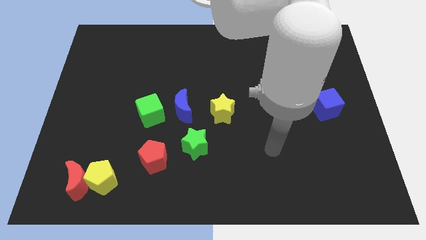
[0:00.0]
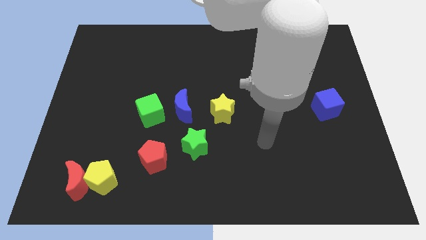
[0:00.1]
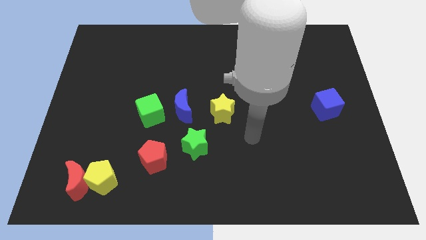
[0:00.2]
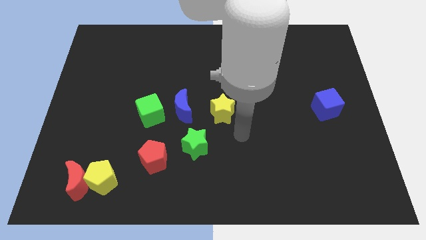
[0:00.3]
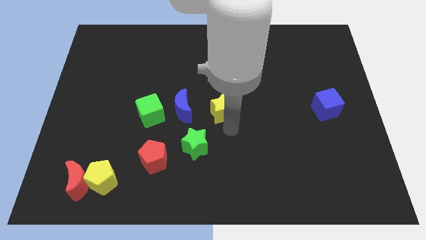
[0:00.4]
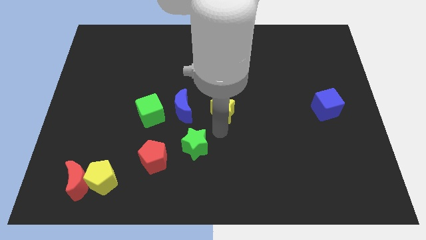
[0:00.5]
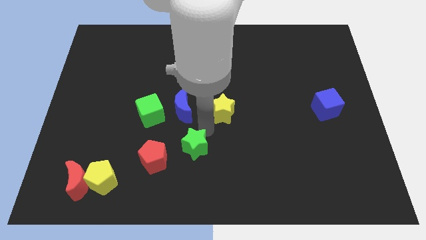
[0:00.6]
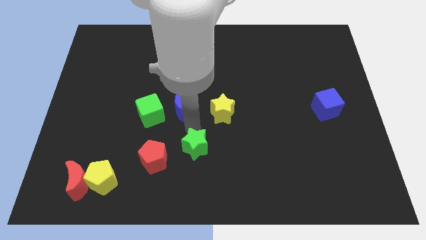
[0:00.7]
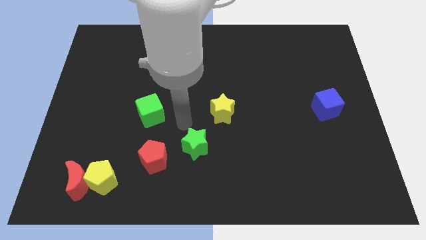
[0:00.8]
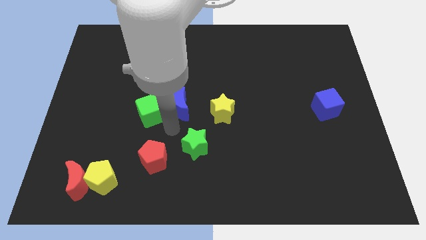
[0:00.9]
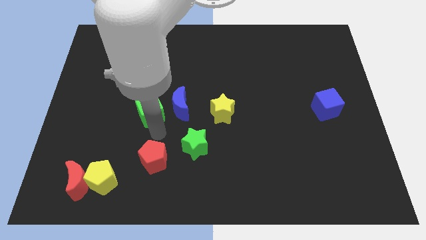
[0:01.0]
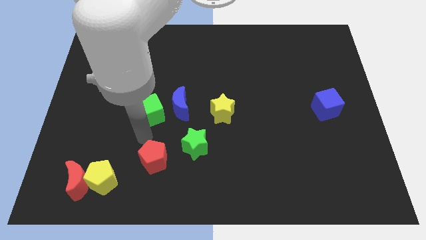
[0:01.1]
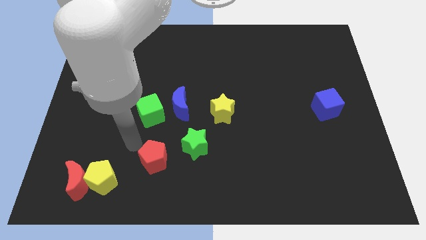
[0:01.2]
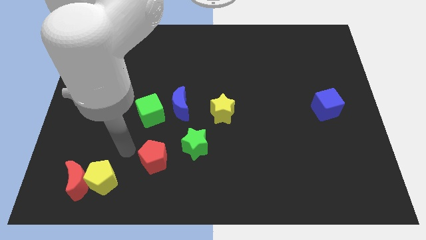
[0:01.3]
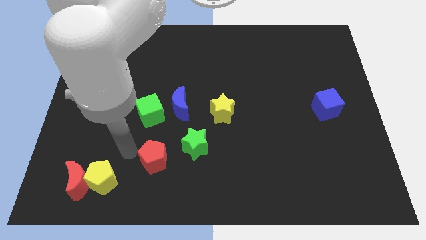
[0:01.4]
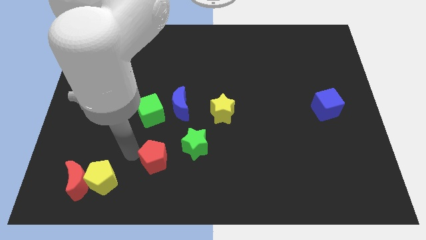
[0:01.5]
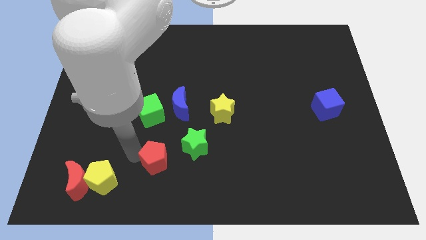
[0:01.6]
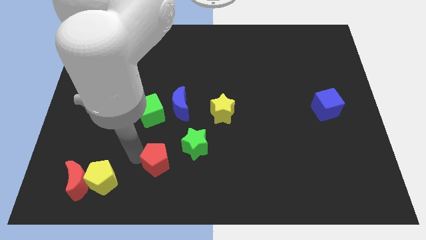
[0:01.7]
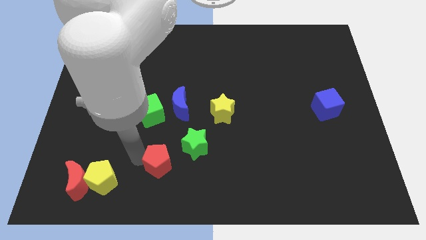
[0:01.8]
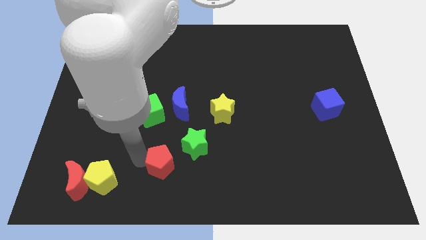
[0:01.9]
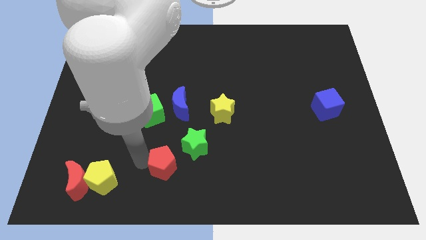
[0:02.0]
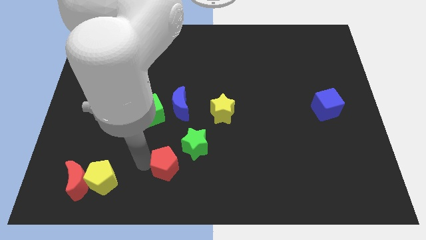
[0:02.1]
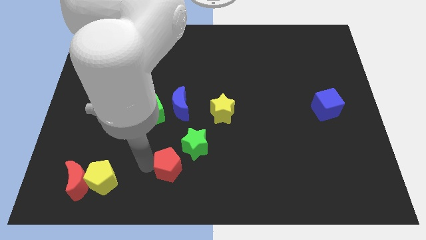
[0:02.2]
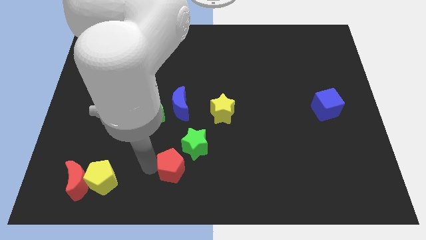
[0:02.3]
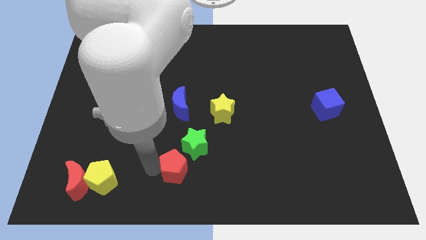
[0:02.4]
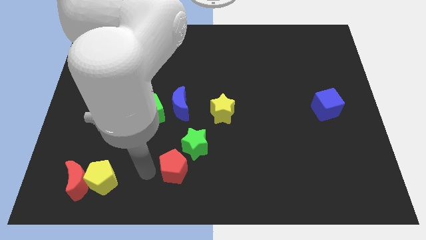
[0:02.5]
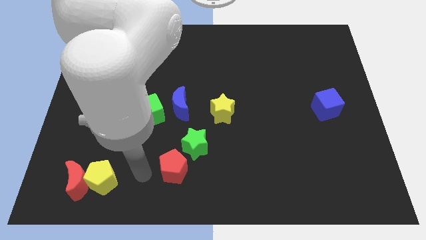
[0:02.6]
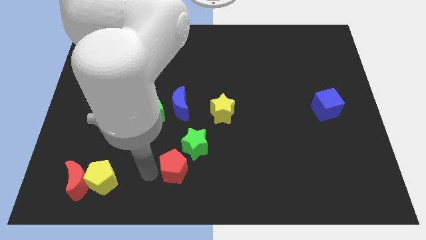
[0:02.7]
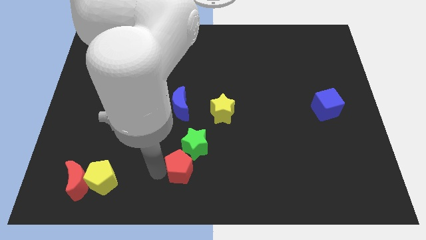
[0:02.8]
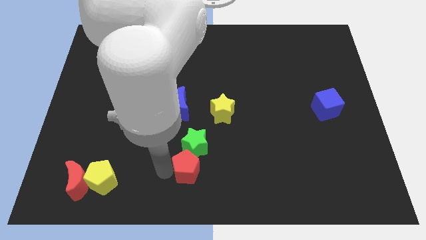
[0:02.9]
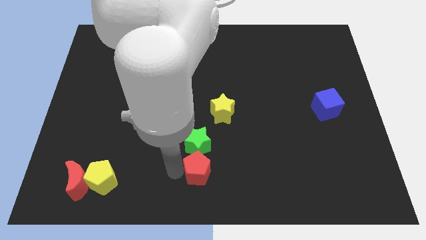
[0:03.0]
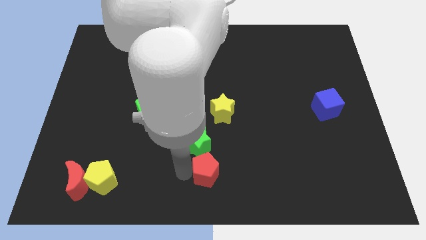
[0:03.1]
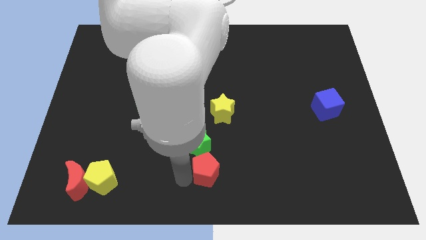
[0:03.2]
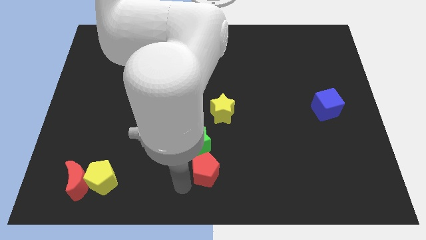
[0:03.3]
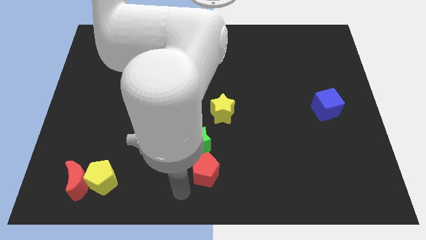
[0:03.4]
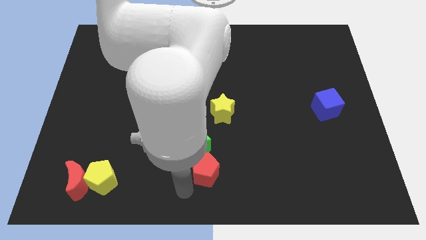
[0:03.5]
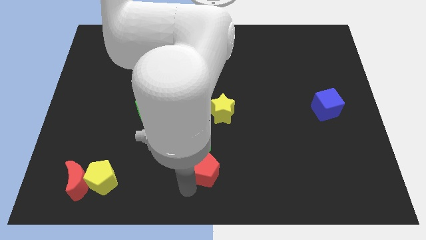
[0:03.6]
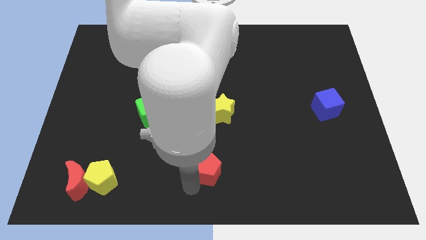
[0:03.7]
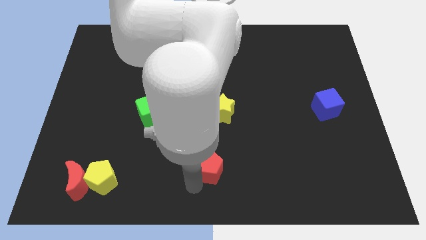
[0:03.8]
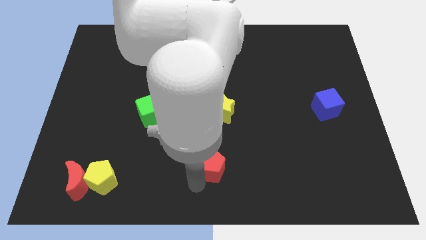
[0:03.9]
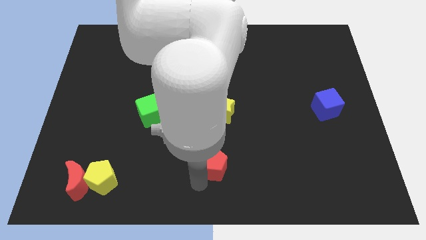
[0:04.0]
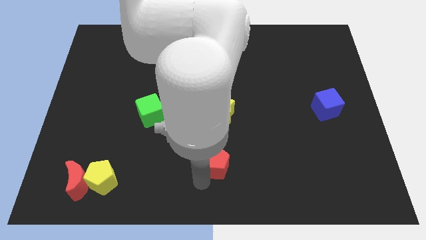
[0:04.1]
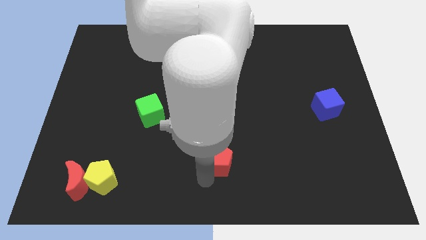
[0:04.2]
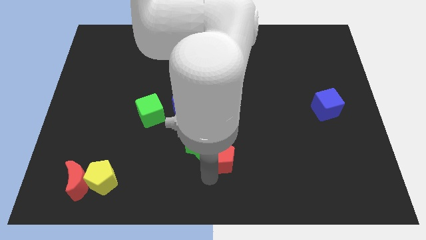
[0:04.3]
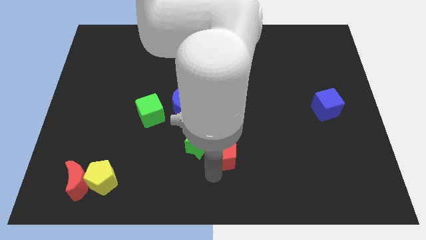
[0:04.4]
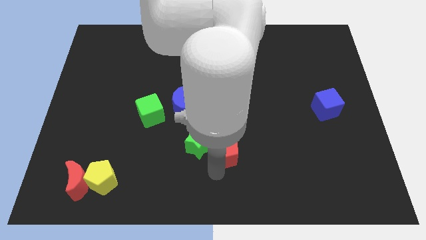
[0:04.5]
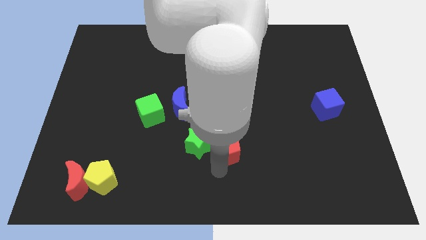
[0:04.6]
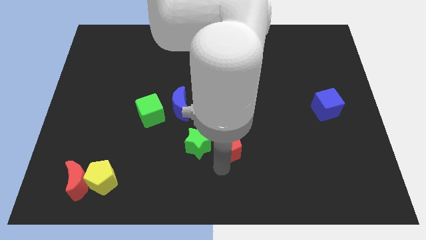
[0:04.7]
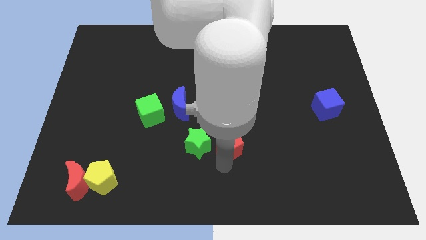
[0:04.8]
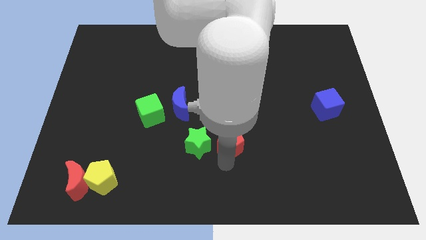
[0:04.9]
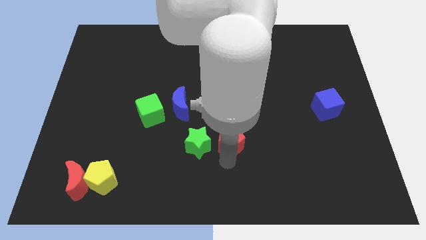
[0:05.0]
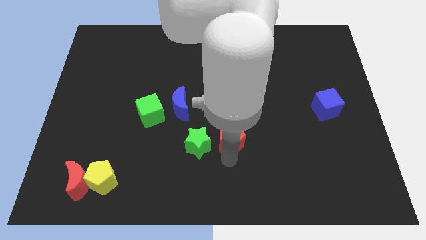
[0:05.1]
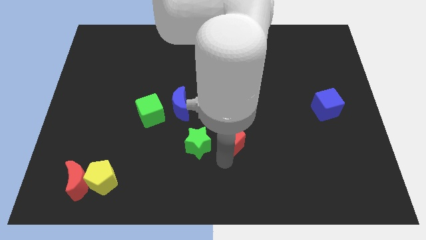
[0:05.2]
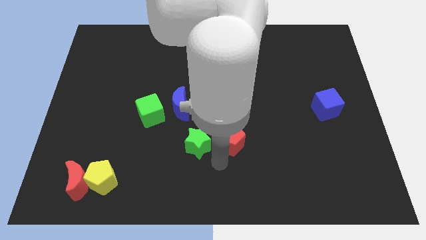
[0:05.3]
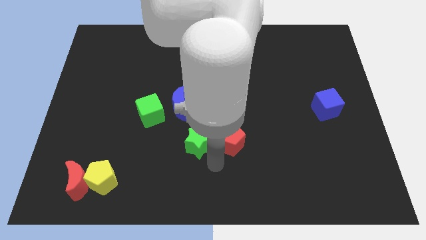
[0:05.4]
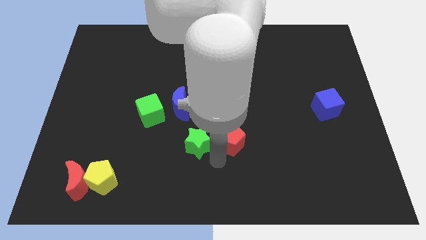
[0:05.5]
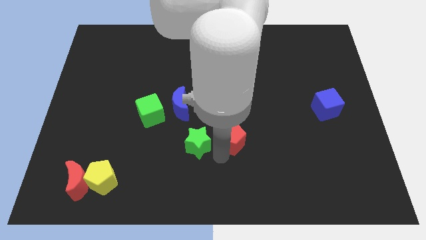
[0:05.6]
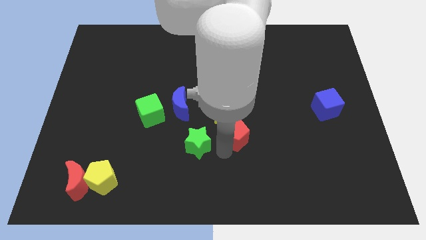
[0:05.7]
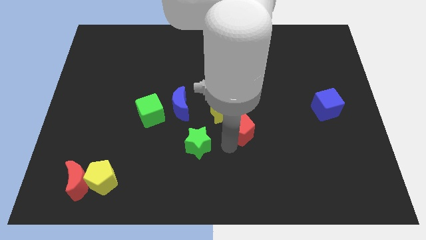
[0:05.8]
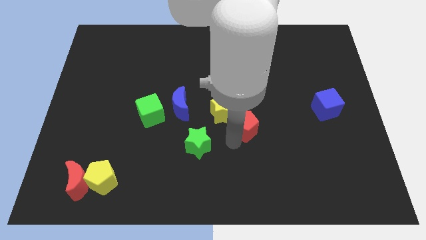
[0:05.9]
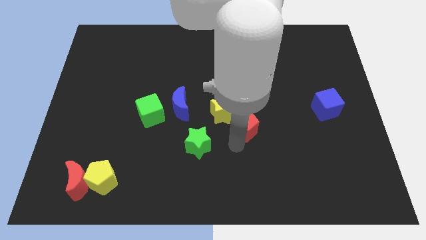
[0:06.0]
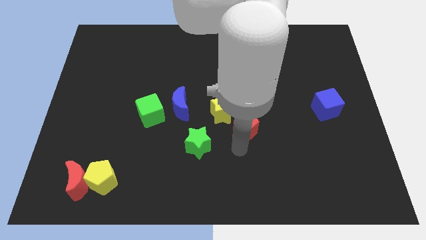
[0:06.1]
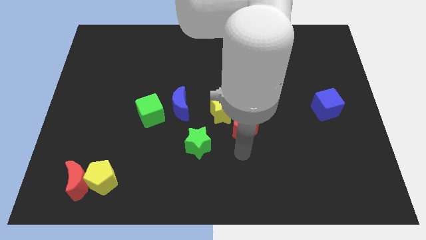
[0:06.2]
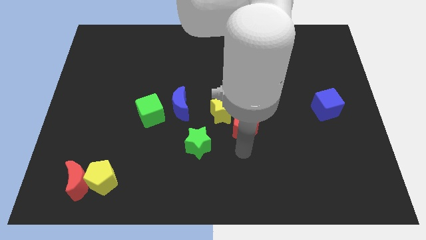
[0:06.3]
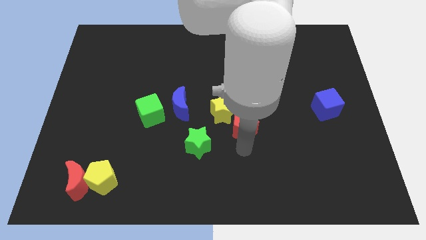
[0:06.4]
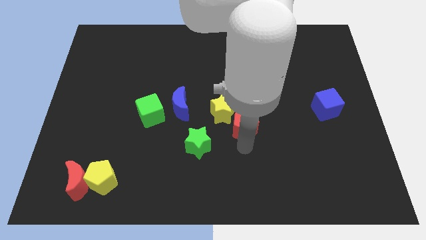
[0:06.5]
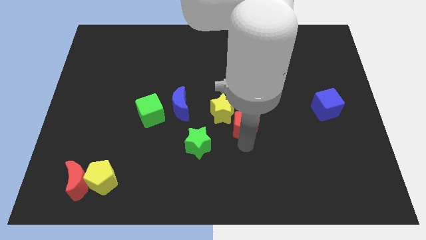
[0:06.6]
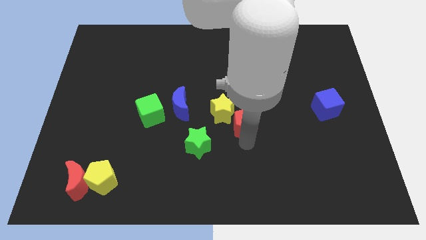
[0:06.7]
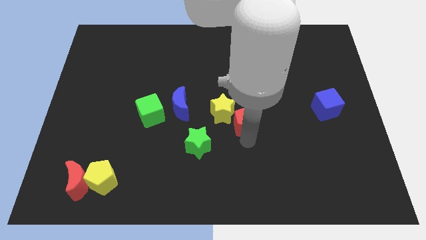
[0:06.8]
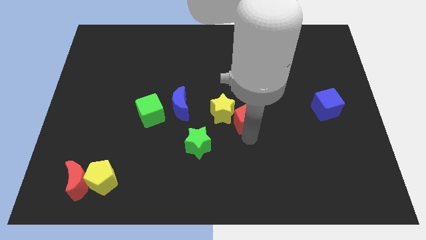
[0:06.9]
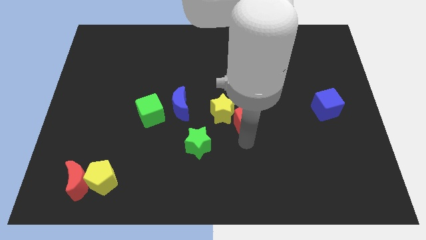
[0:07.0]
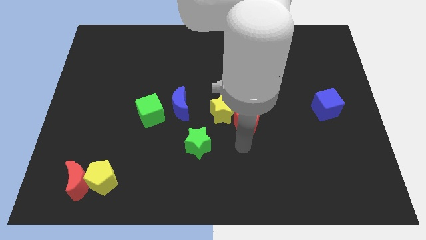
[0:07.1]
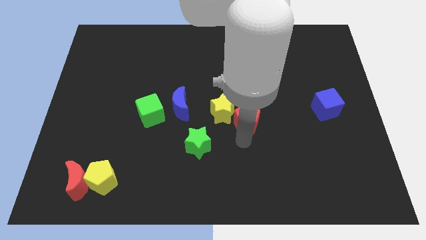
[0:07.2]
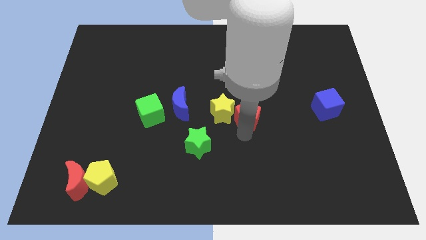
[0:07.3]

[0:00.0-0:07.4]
move the red pentagon diagonally upwards and to the right

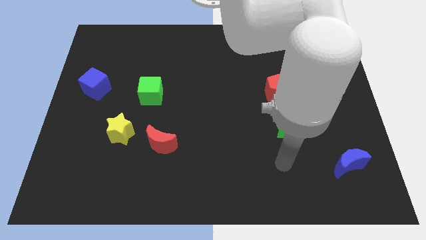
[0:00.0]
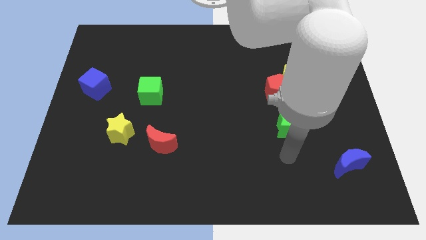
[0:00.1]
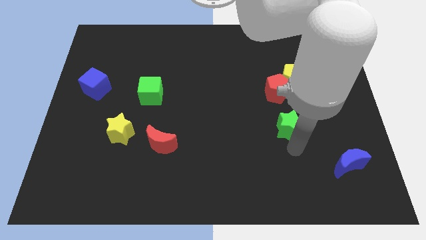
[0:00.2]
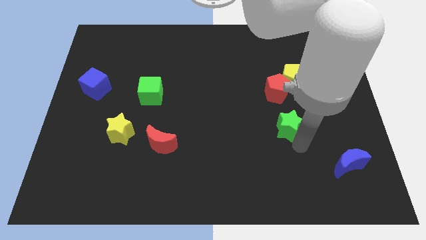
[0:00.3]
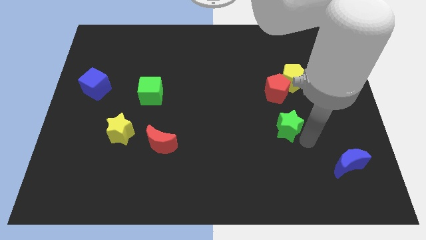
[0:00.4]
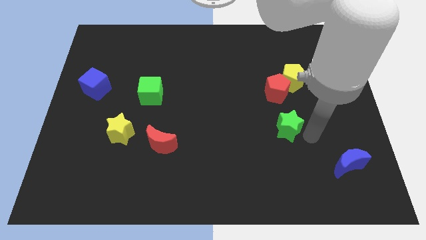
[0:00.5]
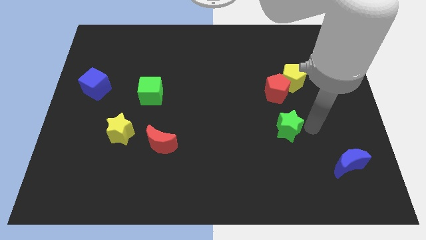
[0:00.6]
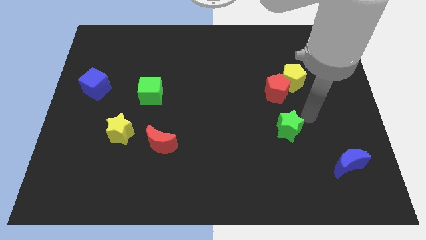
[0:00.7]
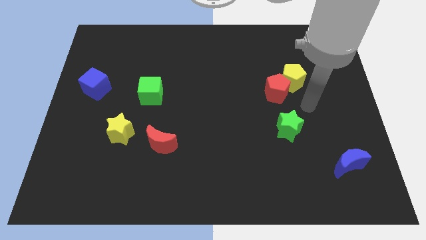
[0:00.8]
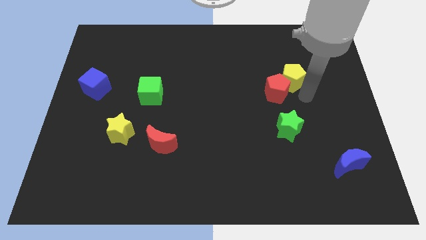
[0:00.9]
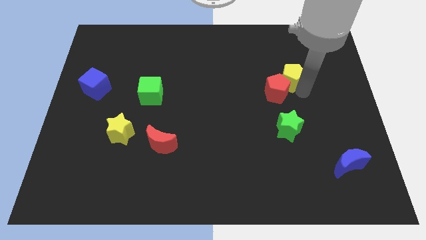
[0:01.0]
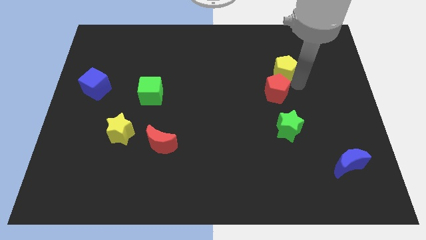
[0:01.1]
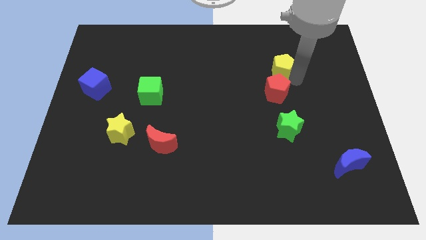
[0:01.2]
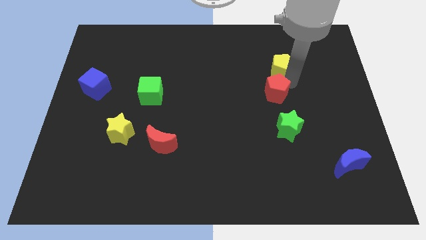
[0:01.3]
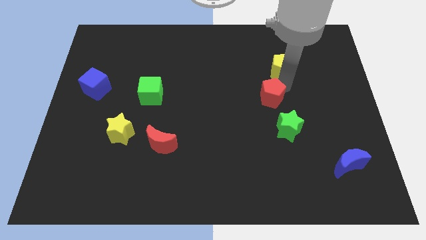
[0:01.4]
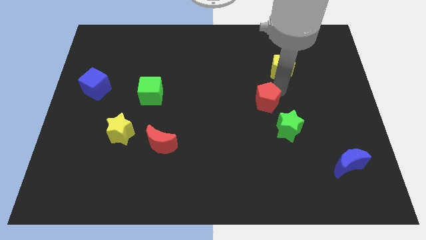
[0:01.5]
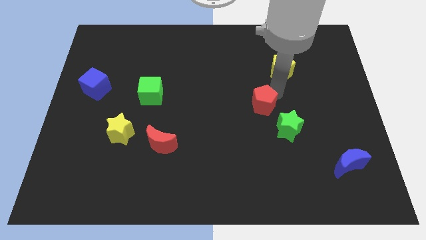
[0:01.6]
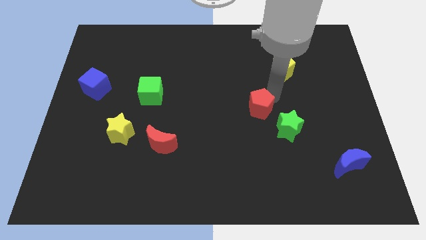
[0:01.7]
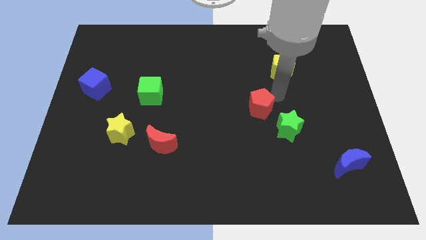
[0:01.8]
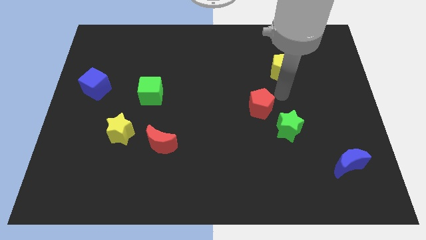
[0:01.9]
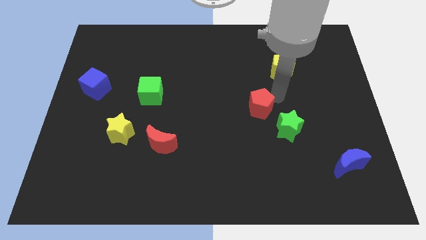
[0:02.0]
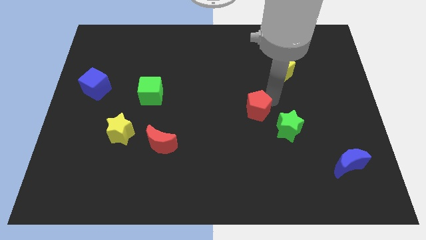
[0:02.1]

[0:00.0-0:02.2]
slightly push the red pentagon down and left
